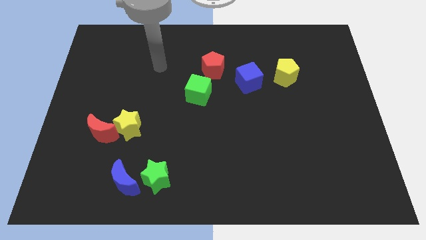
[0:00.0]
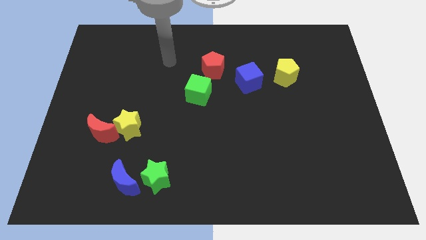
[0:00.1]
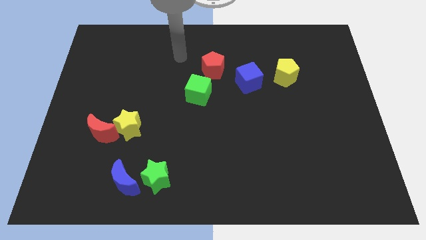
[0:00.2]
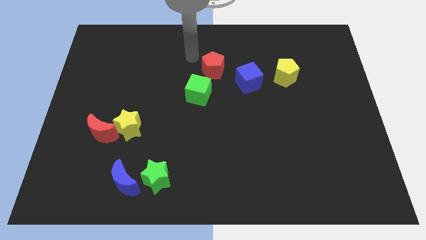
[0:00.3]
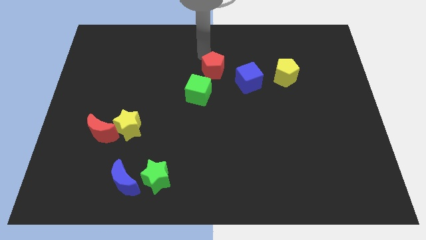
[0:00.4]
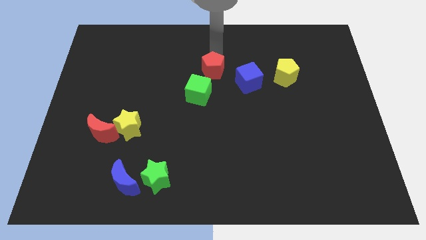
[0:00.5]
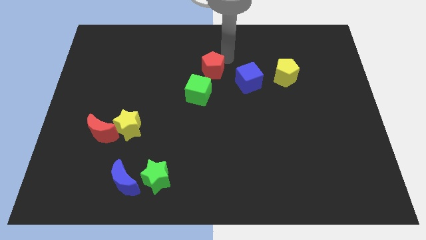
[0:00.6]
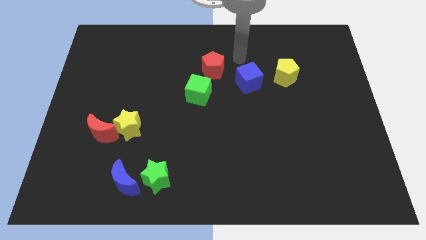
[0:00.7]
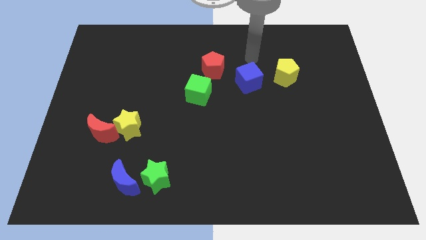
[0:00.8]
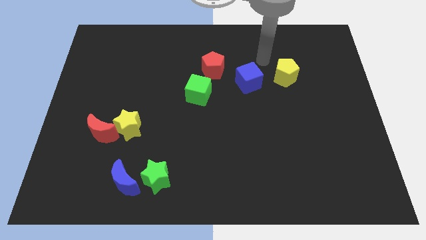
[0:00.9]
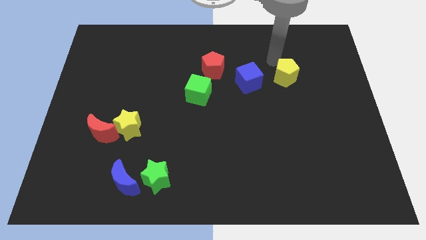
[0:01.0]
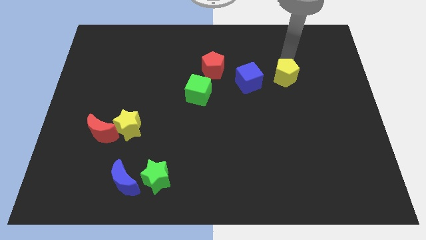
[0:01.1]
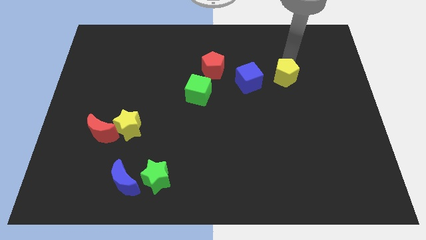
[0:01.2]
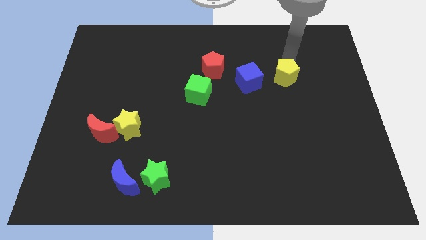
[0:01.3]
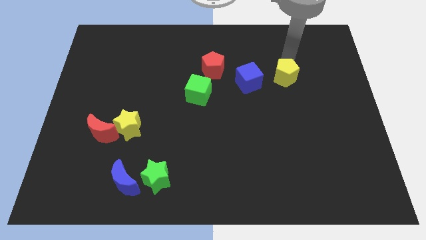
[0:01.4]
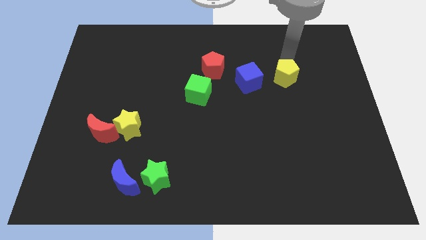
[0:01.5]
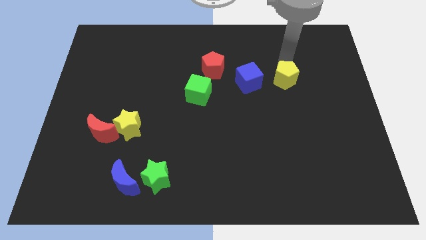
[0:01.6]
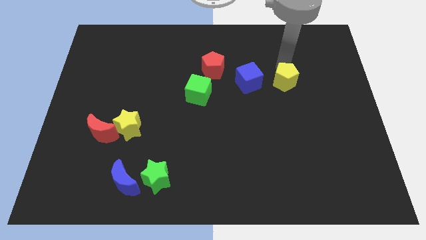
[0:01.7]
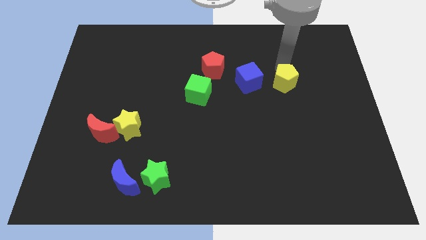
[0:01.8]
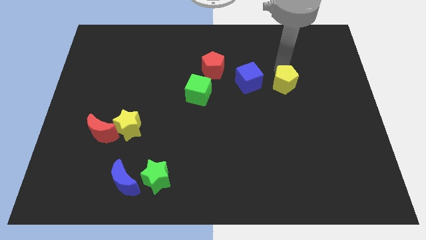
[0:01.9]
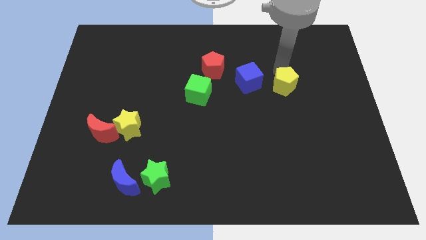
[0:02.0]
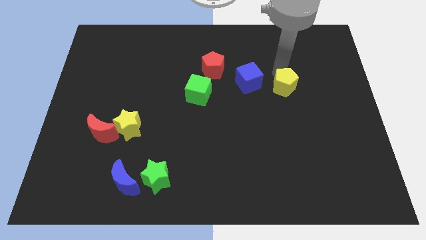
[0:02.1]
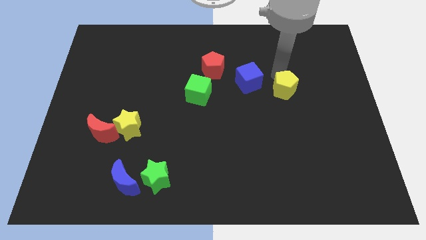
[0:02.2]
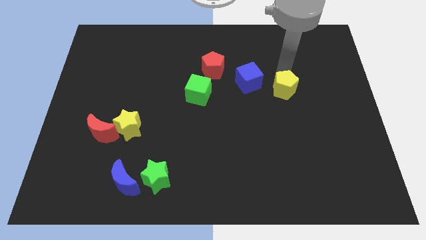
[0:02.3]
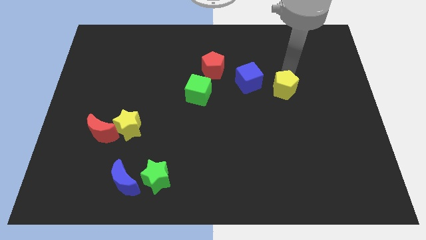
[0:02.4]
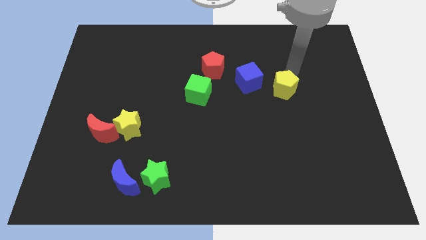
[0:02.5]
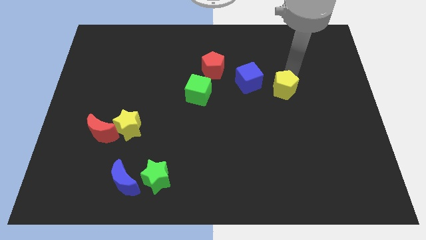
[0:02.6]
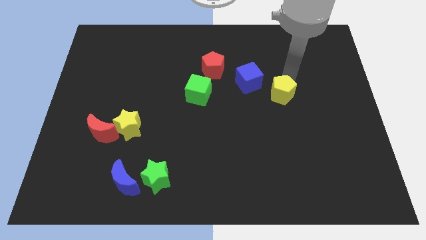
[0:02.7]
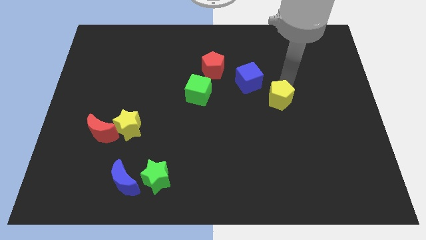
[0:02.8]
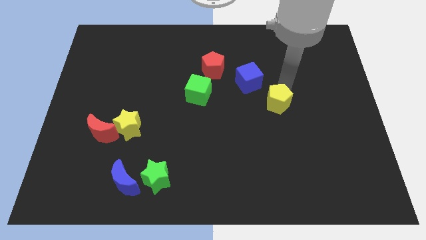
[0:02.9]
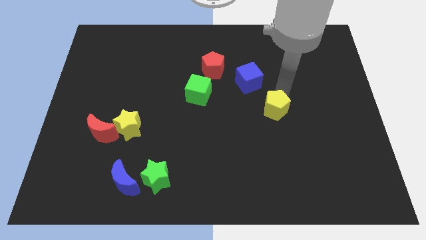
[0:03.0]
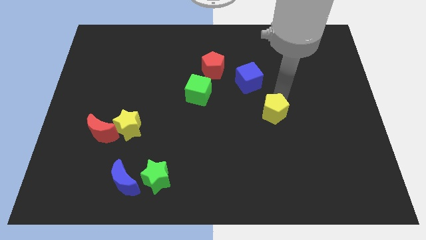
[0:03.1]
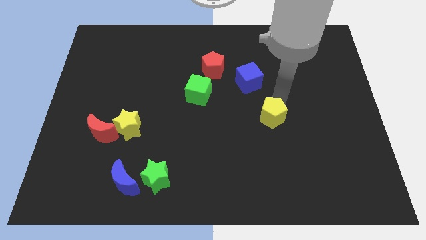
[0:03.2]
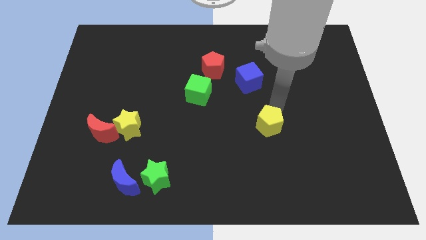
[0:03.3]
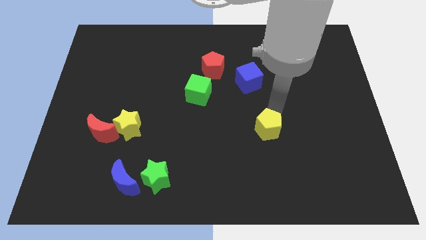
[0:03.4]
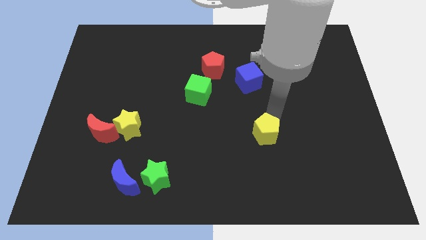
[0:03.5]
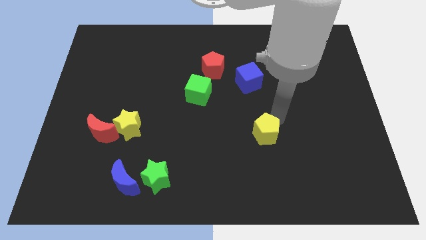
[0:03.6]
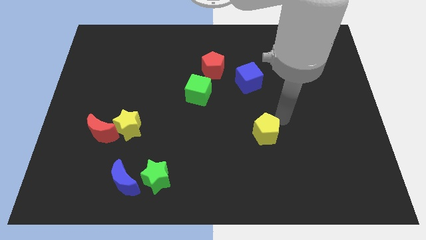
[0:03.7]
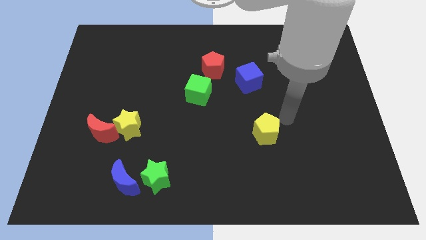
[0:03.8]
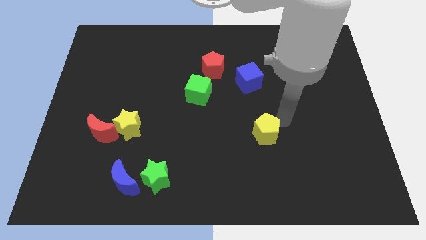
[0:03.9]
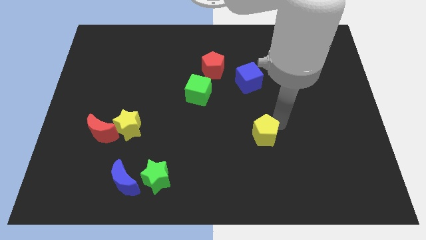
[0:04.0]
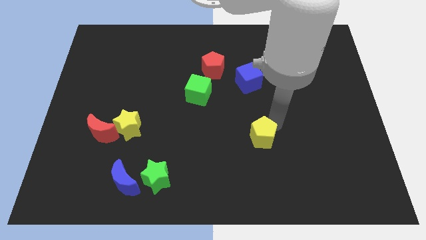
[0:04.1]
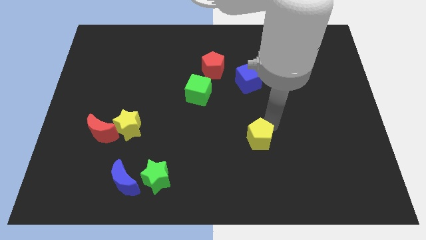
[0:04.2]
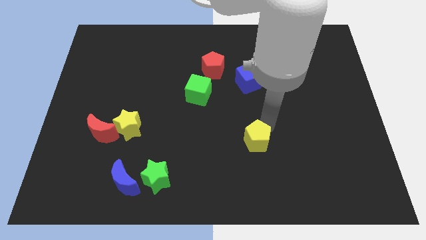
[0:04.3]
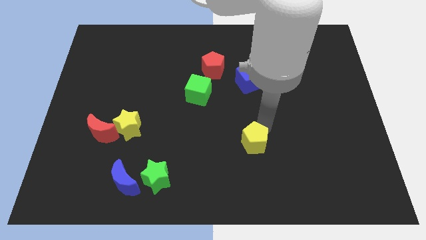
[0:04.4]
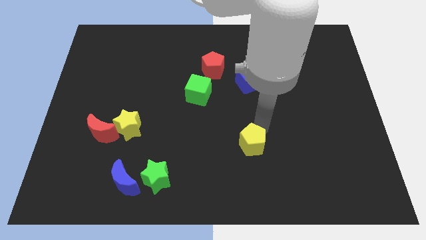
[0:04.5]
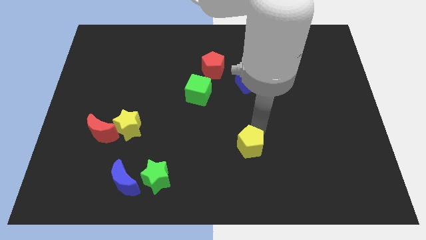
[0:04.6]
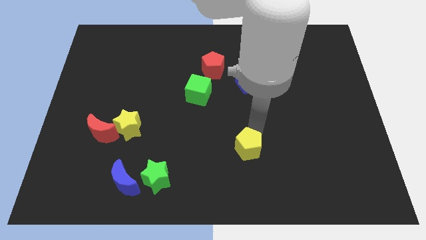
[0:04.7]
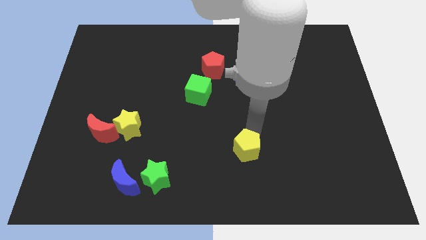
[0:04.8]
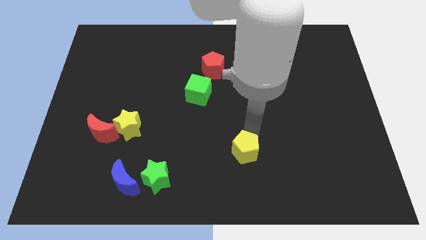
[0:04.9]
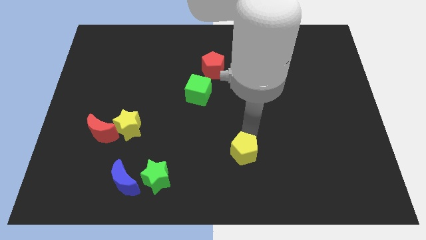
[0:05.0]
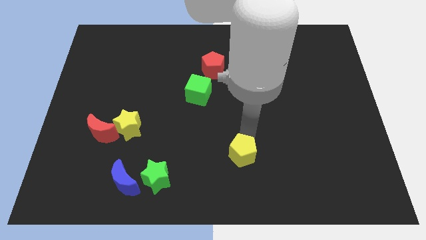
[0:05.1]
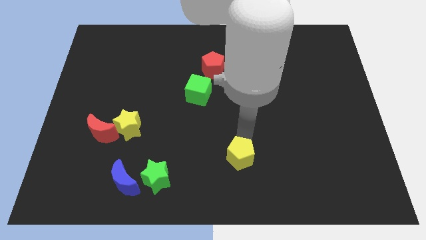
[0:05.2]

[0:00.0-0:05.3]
put the yellow pentagon to the bottom side
